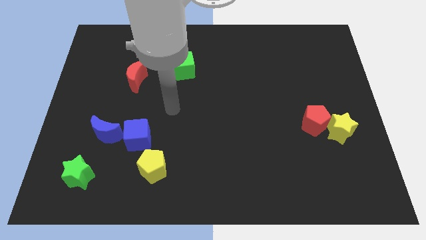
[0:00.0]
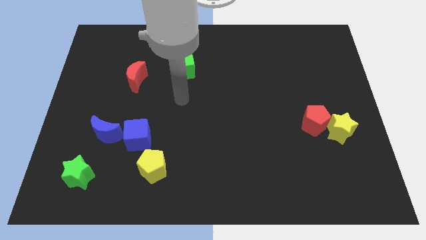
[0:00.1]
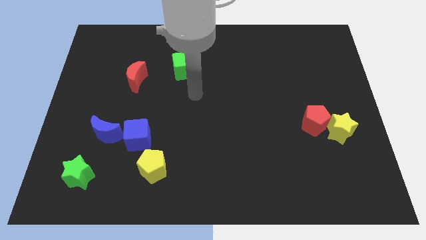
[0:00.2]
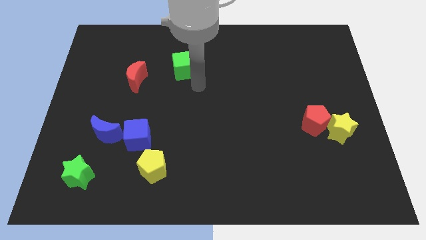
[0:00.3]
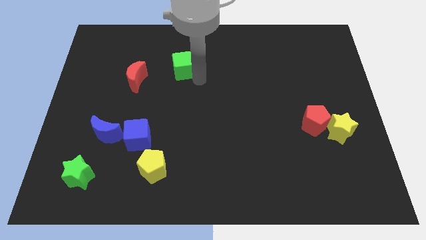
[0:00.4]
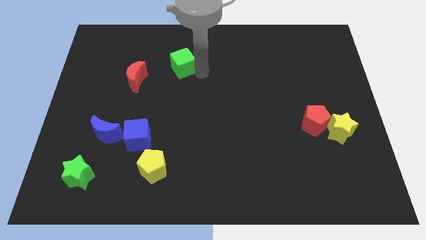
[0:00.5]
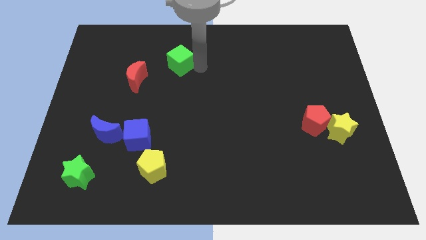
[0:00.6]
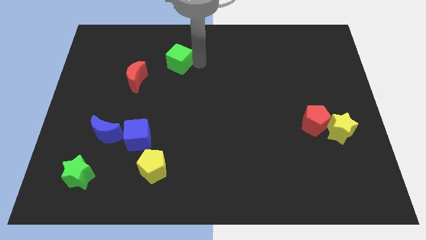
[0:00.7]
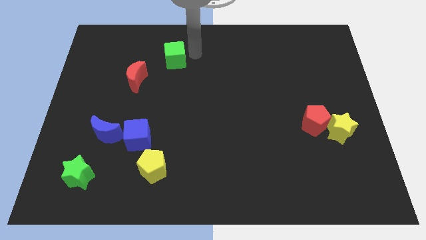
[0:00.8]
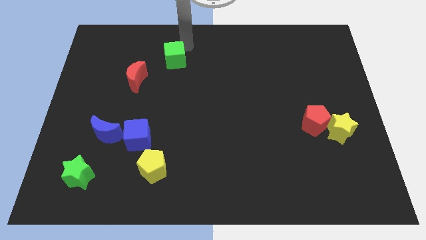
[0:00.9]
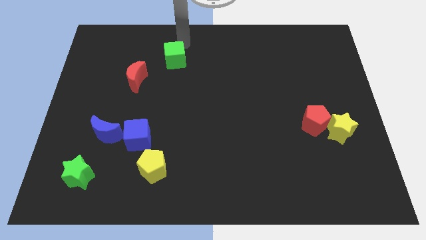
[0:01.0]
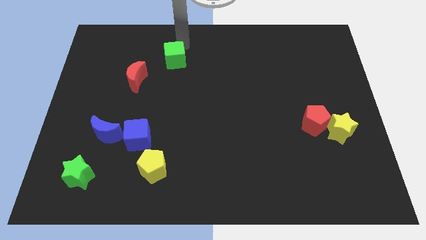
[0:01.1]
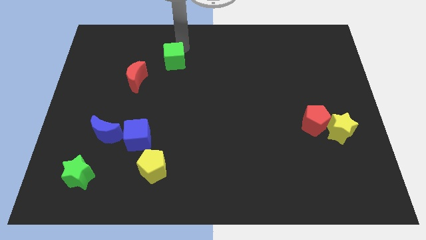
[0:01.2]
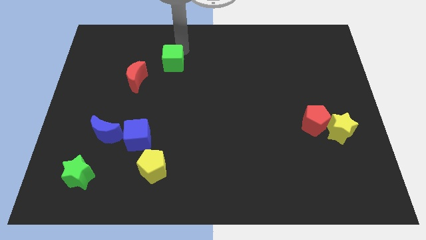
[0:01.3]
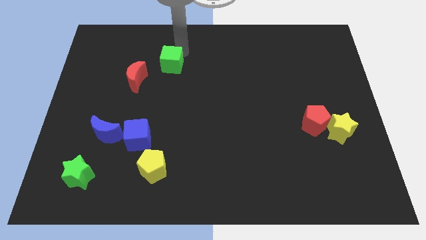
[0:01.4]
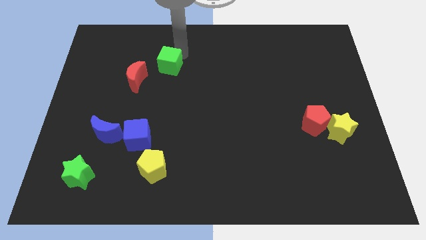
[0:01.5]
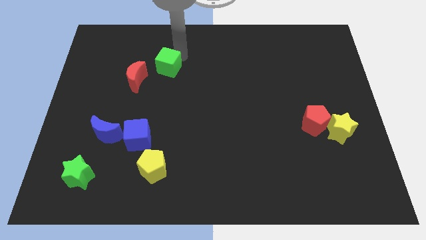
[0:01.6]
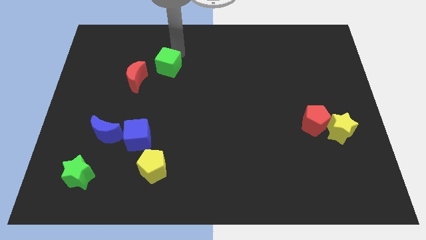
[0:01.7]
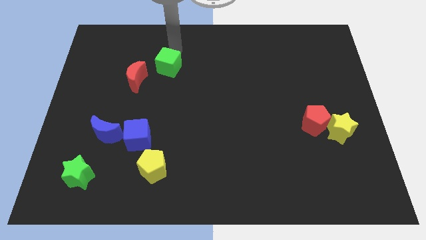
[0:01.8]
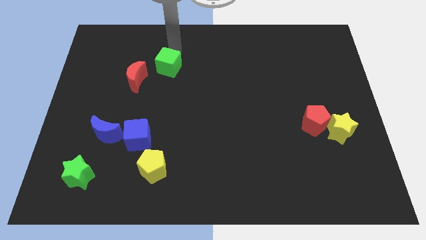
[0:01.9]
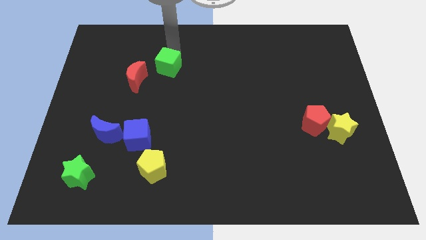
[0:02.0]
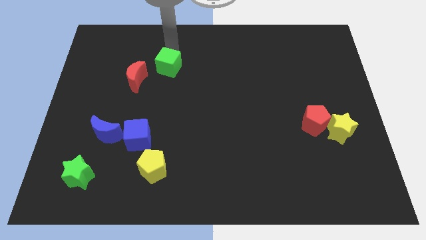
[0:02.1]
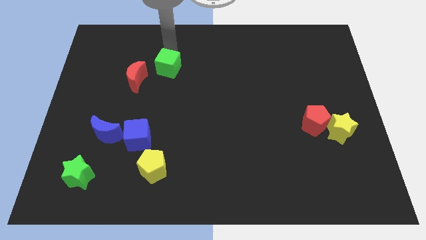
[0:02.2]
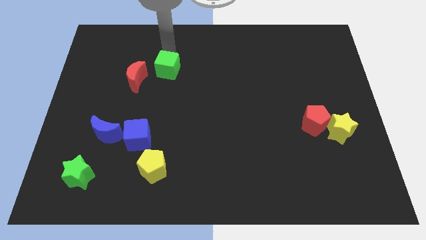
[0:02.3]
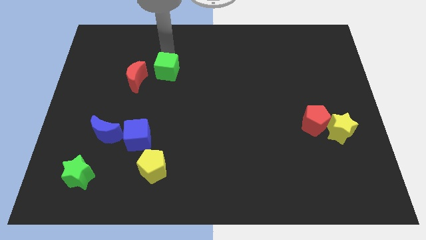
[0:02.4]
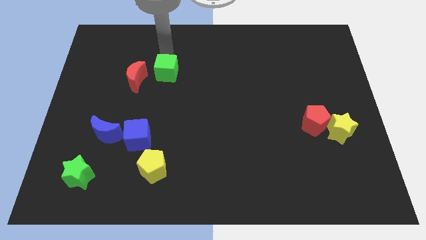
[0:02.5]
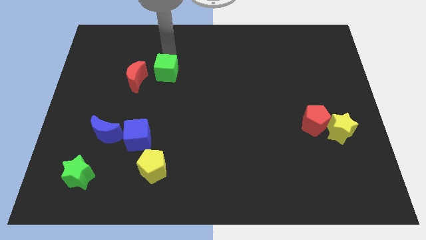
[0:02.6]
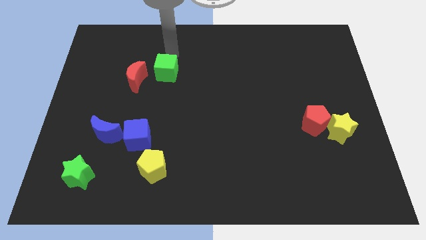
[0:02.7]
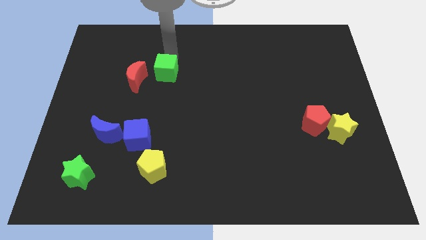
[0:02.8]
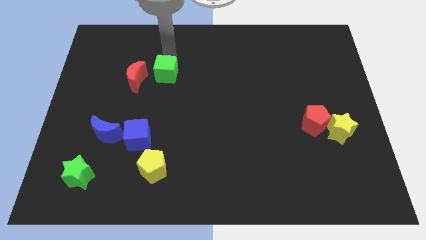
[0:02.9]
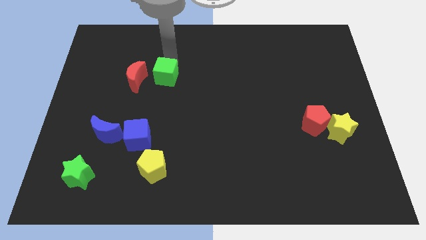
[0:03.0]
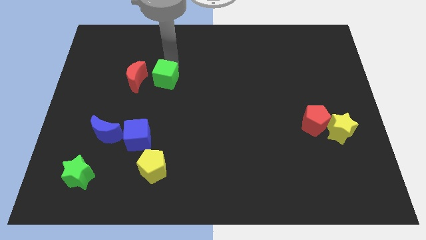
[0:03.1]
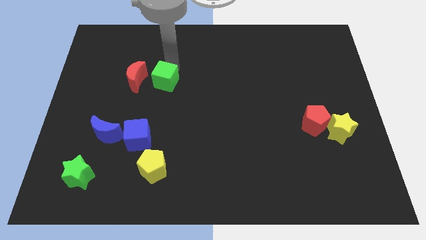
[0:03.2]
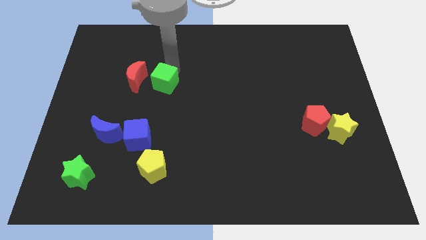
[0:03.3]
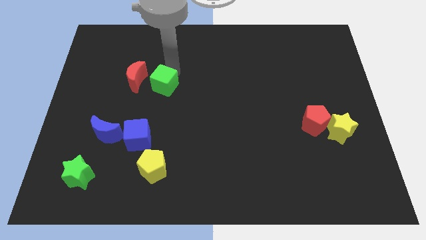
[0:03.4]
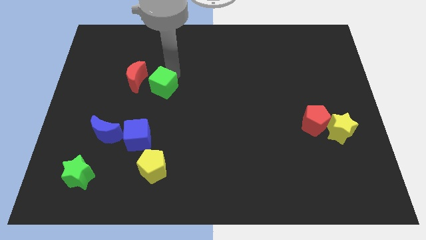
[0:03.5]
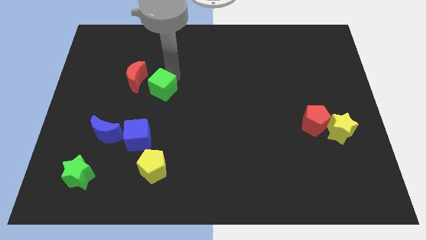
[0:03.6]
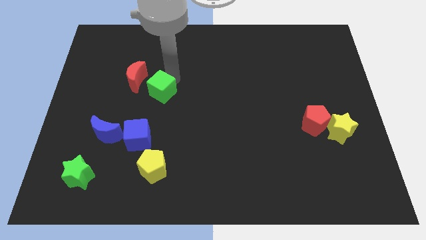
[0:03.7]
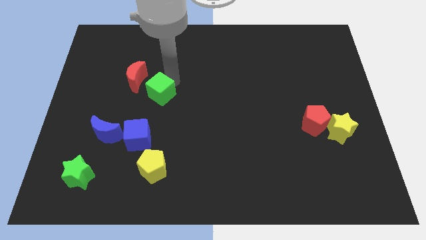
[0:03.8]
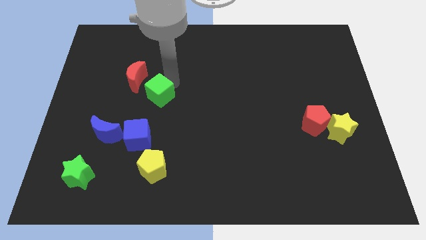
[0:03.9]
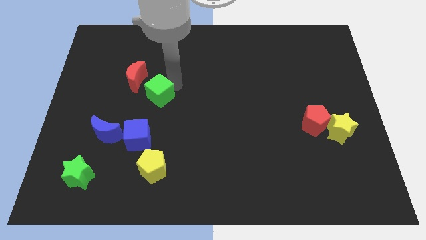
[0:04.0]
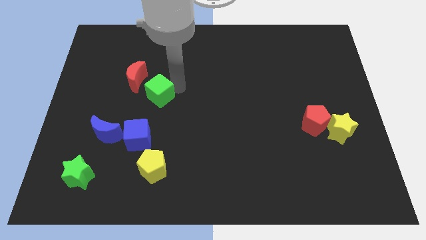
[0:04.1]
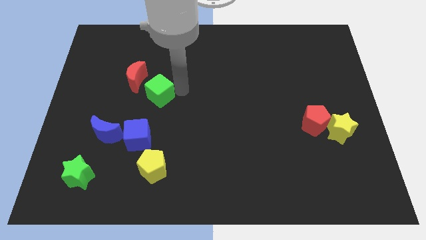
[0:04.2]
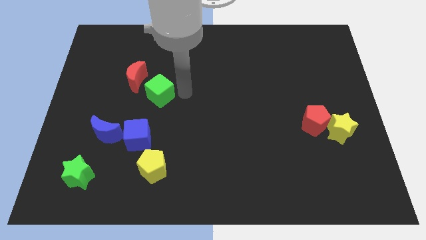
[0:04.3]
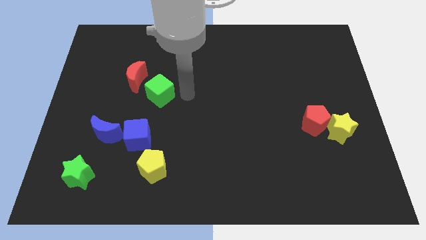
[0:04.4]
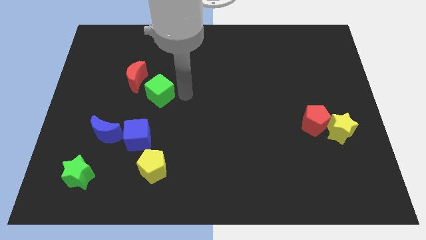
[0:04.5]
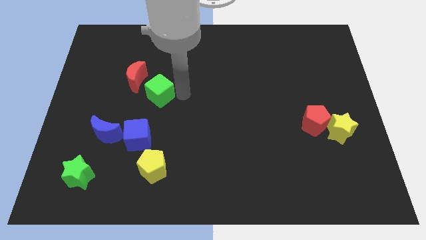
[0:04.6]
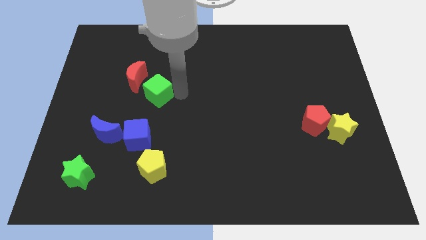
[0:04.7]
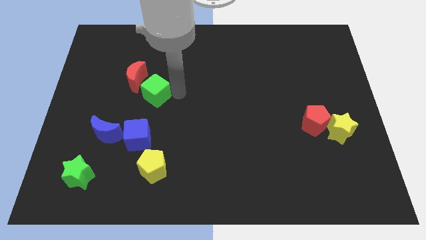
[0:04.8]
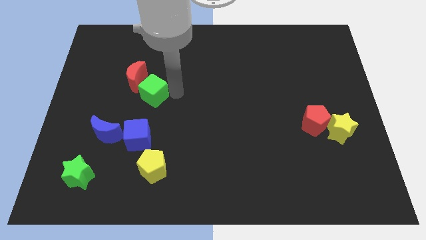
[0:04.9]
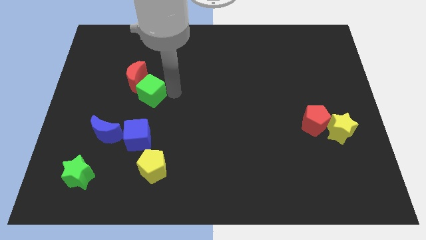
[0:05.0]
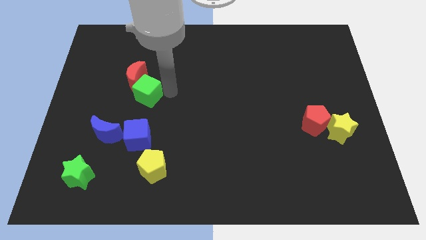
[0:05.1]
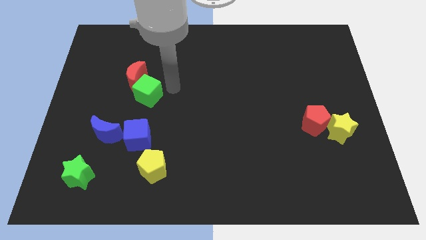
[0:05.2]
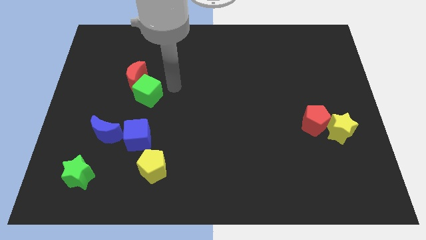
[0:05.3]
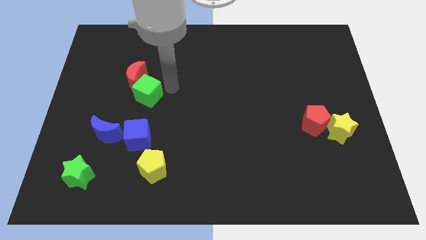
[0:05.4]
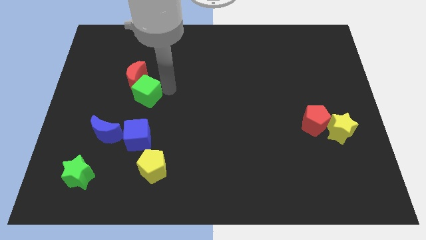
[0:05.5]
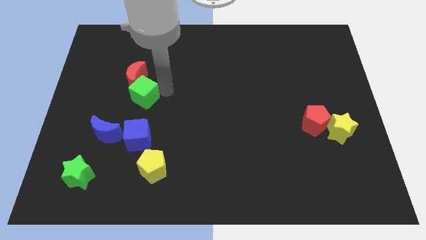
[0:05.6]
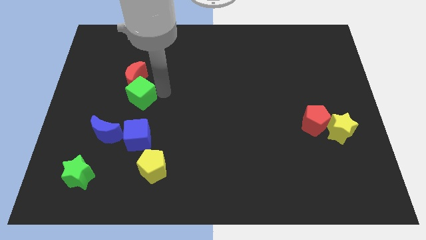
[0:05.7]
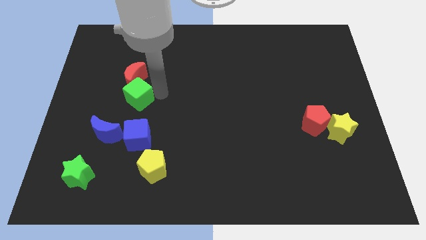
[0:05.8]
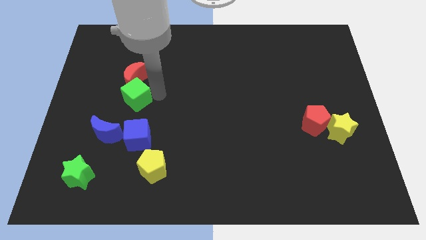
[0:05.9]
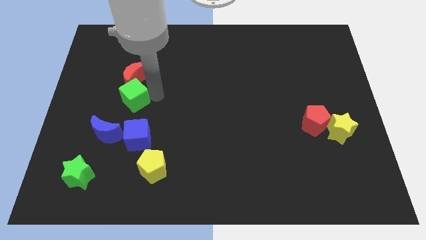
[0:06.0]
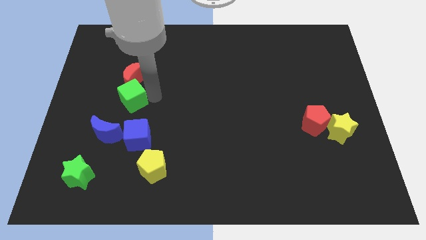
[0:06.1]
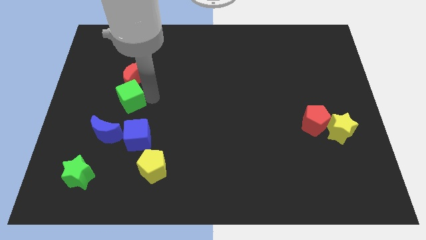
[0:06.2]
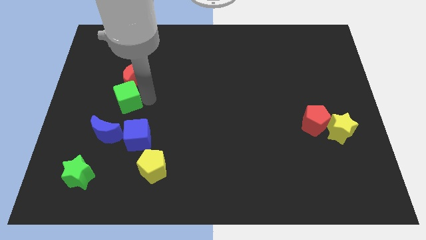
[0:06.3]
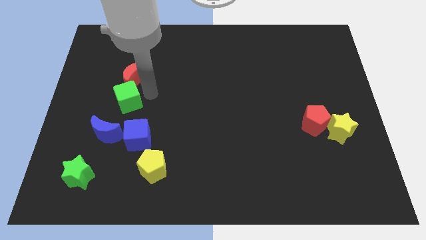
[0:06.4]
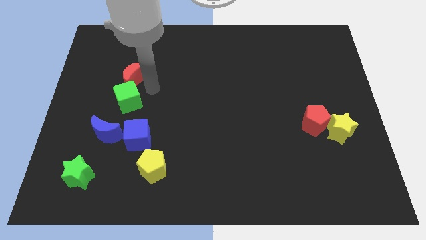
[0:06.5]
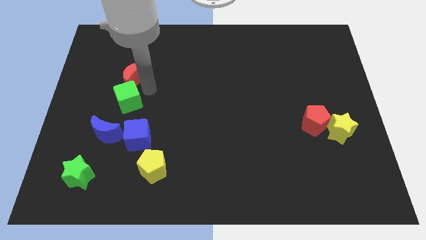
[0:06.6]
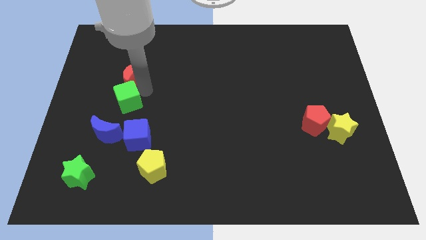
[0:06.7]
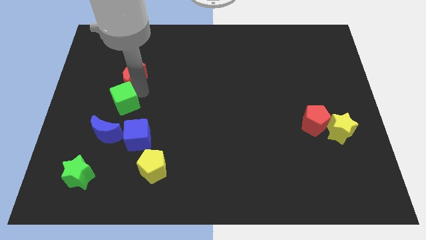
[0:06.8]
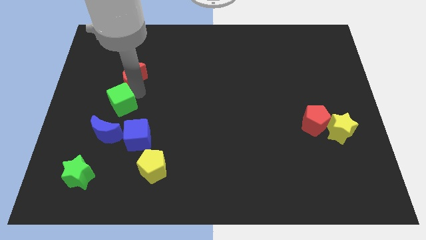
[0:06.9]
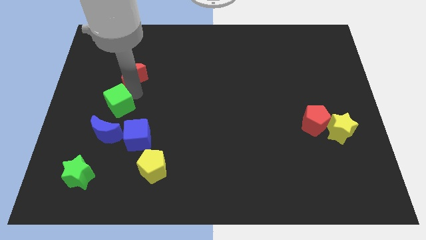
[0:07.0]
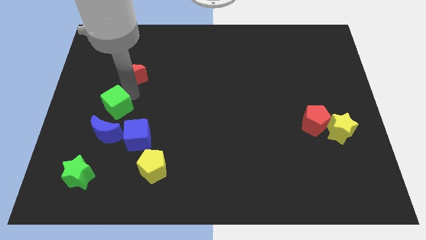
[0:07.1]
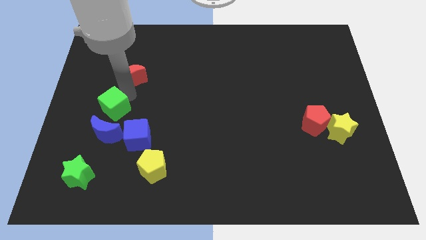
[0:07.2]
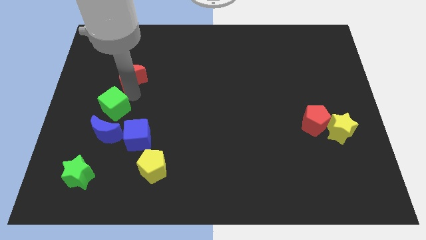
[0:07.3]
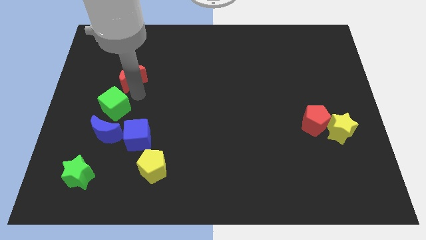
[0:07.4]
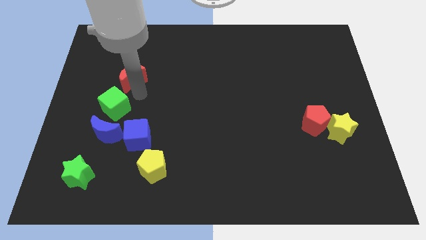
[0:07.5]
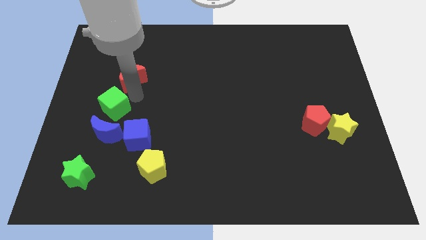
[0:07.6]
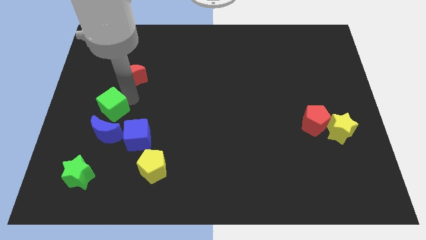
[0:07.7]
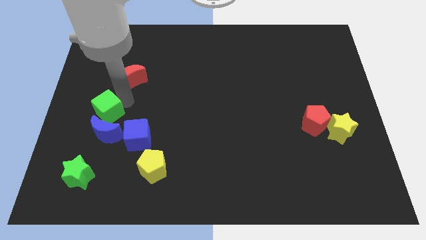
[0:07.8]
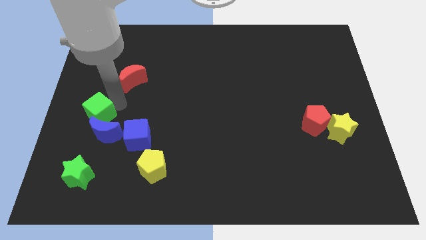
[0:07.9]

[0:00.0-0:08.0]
move the green cube above the green star
